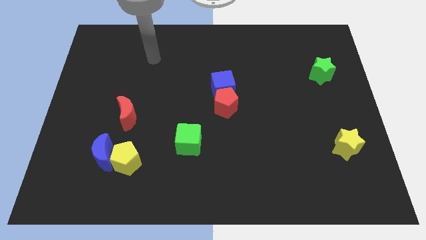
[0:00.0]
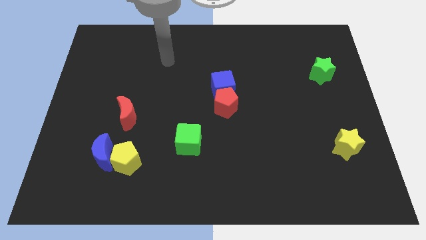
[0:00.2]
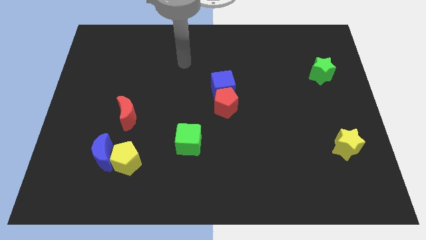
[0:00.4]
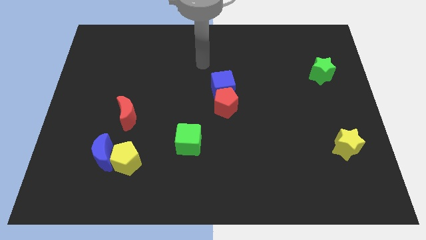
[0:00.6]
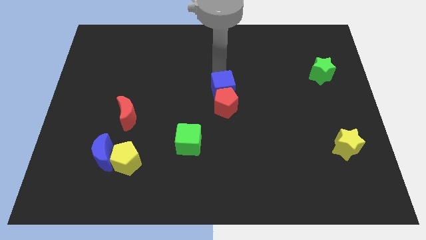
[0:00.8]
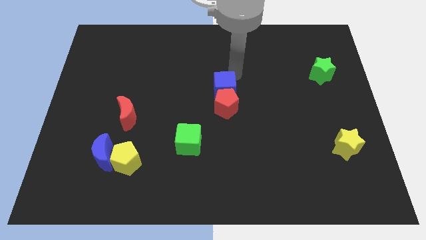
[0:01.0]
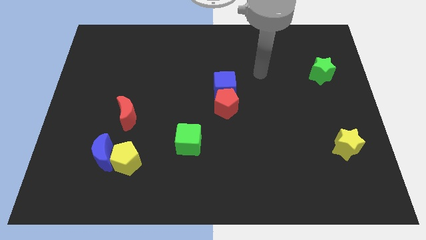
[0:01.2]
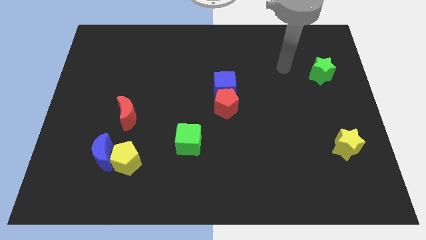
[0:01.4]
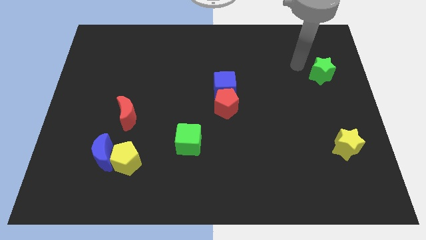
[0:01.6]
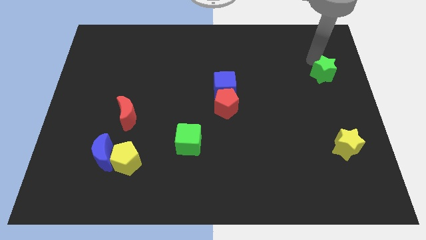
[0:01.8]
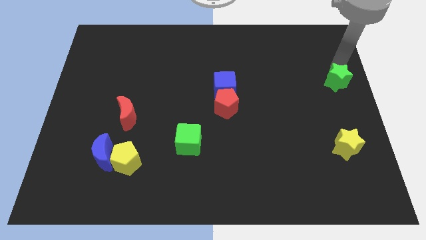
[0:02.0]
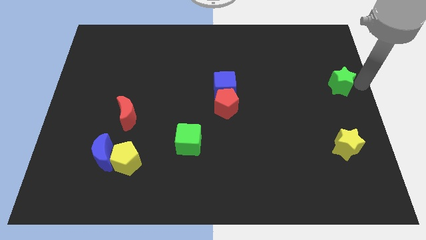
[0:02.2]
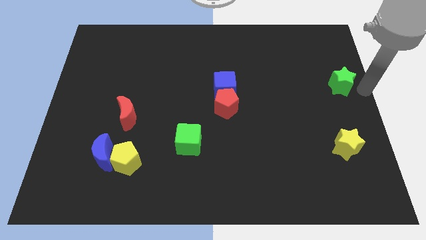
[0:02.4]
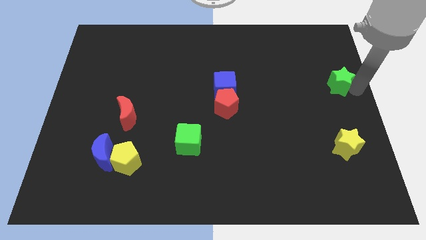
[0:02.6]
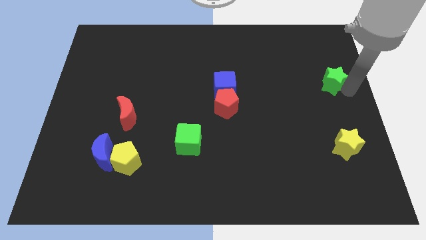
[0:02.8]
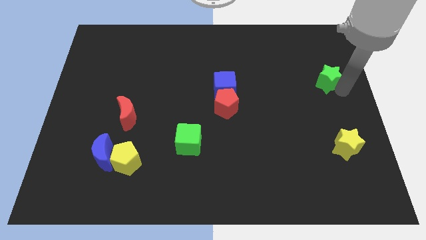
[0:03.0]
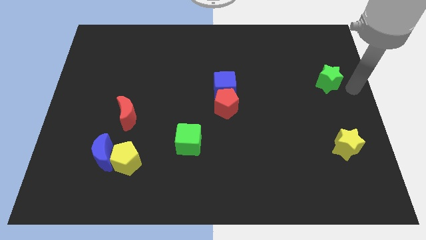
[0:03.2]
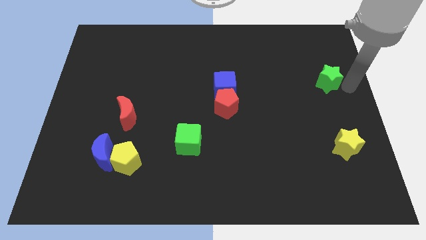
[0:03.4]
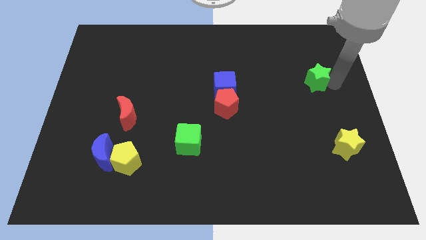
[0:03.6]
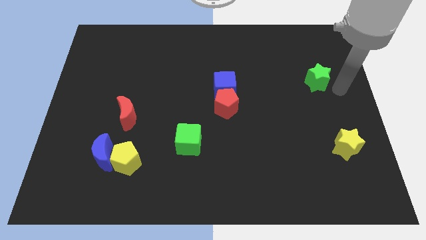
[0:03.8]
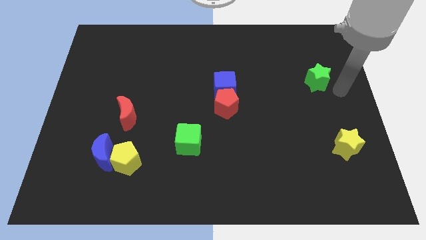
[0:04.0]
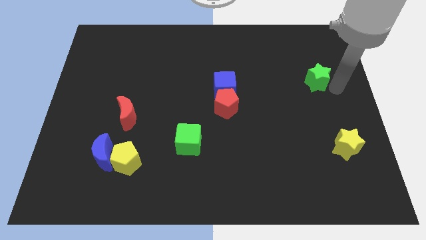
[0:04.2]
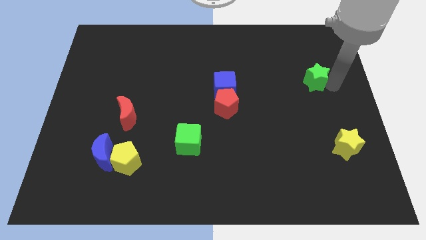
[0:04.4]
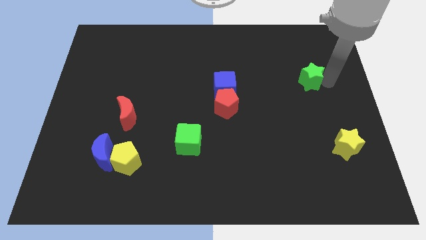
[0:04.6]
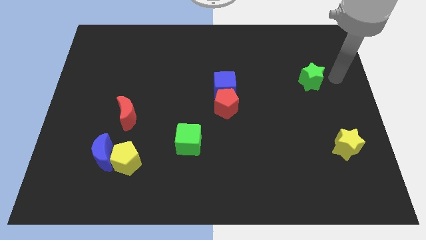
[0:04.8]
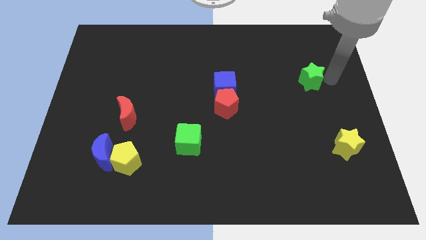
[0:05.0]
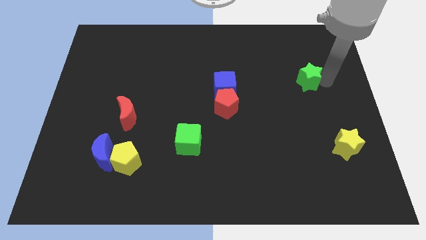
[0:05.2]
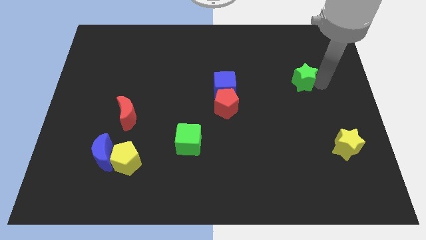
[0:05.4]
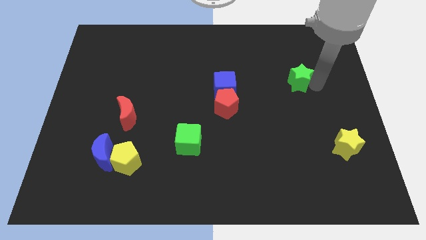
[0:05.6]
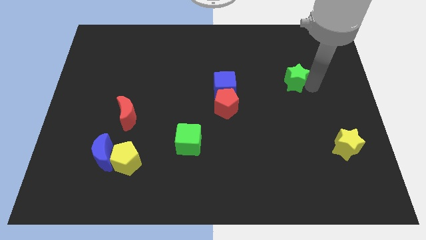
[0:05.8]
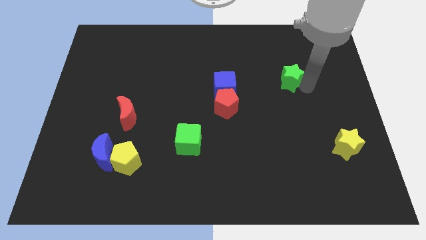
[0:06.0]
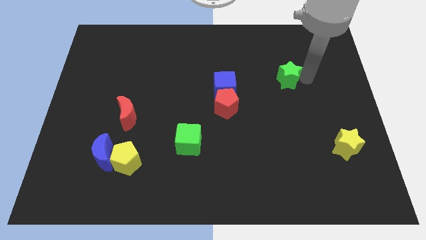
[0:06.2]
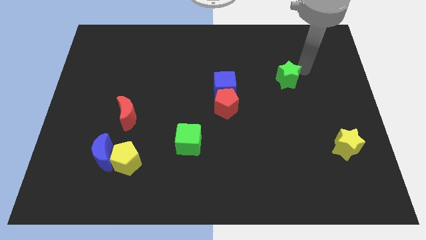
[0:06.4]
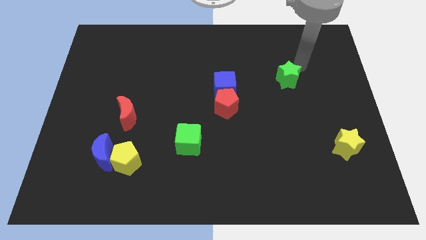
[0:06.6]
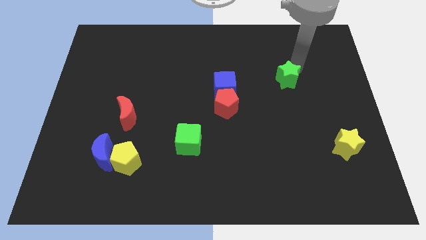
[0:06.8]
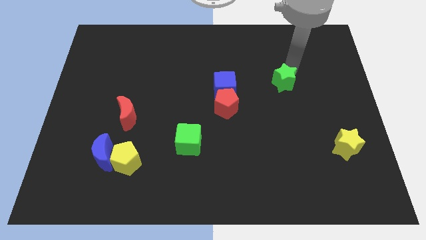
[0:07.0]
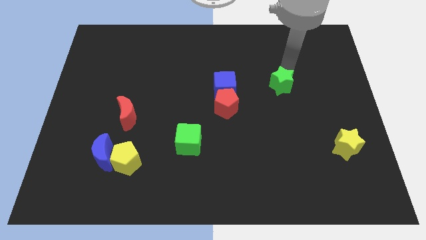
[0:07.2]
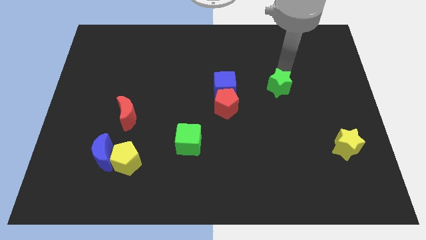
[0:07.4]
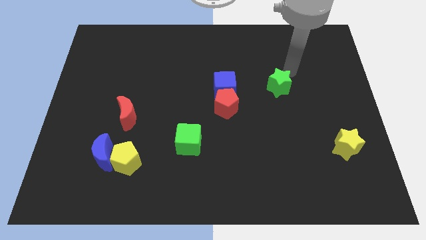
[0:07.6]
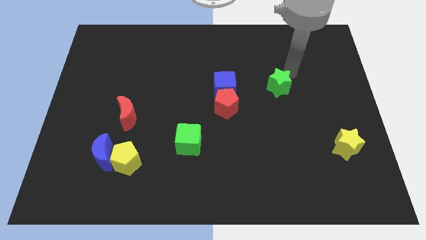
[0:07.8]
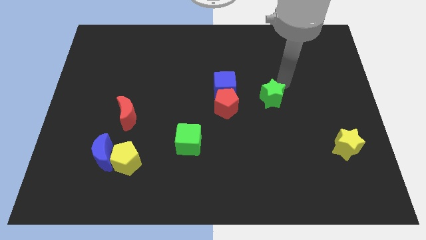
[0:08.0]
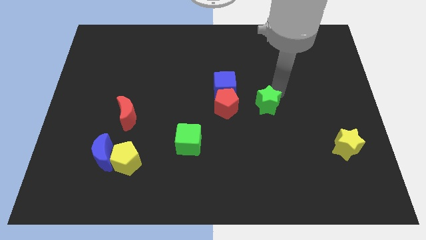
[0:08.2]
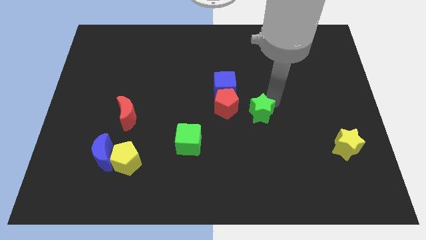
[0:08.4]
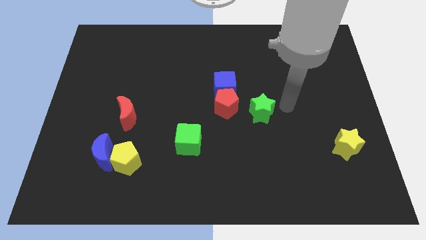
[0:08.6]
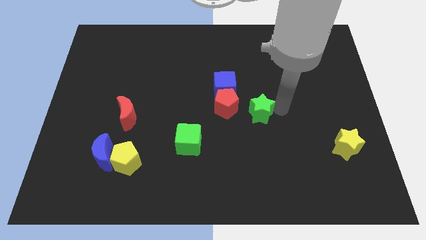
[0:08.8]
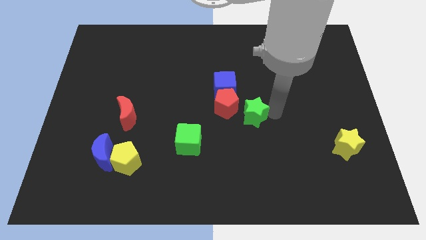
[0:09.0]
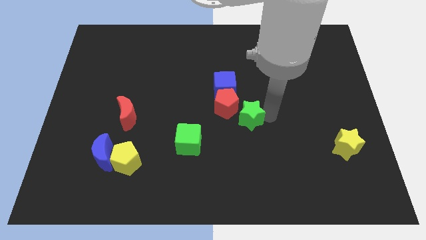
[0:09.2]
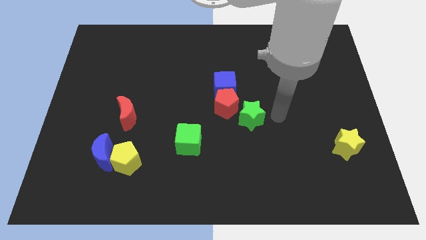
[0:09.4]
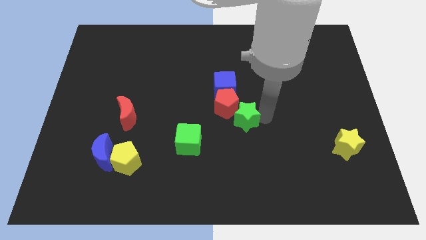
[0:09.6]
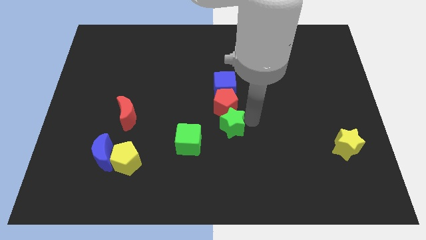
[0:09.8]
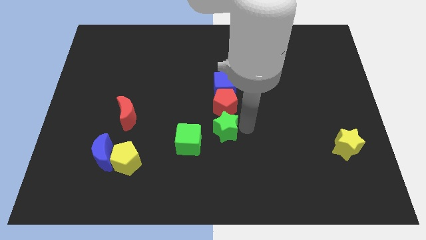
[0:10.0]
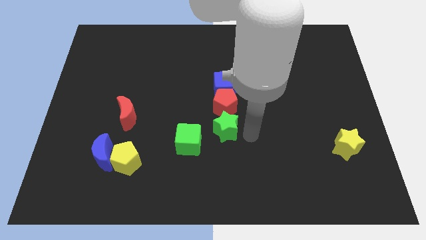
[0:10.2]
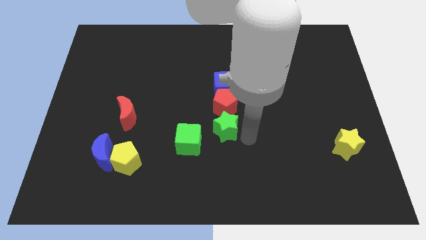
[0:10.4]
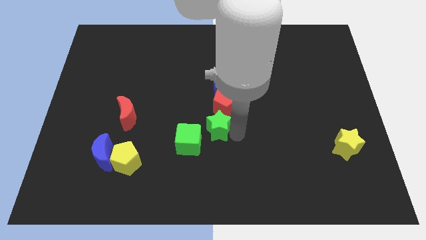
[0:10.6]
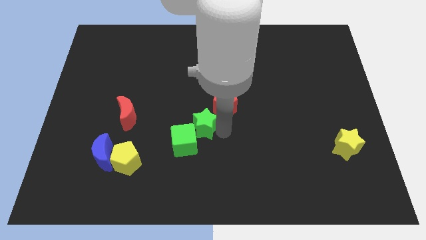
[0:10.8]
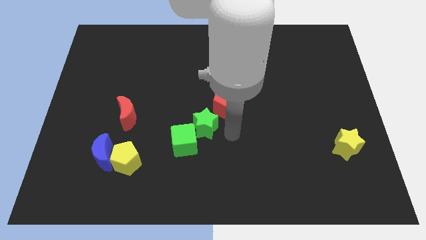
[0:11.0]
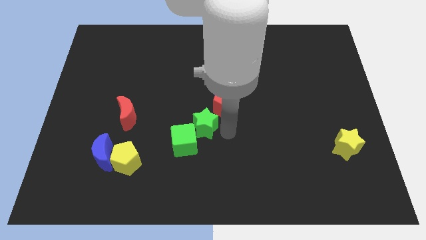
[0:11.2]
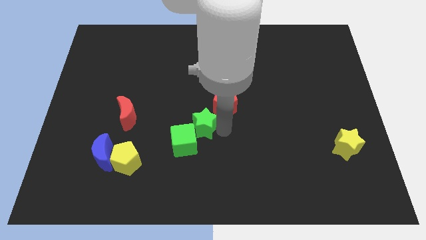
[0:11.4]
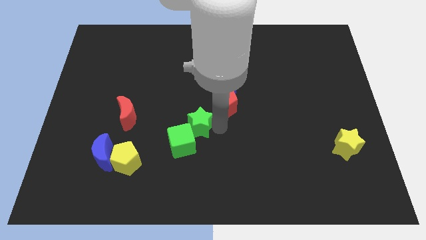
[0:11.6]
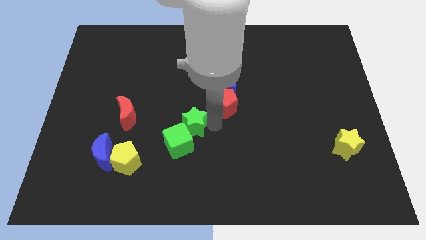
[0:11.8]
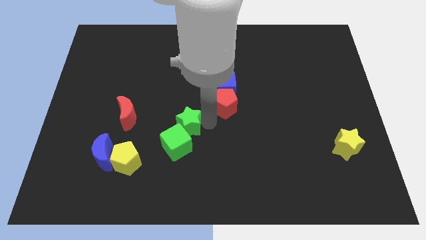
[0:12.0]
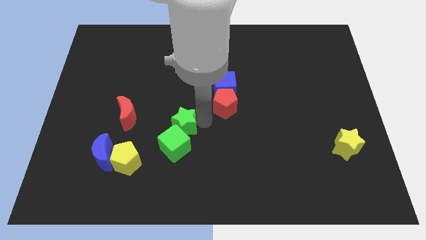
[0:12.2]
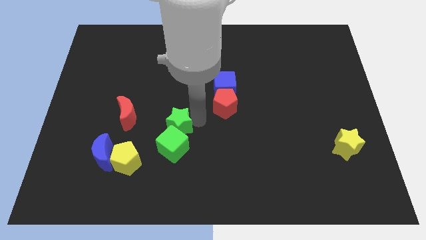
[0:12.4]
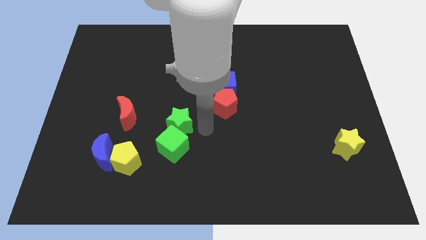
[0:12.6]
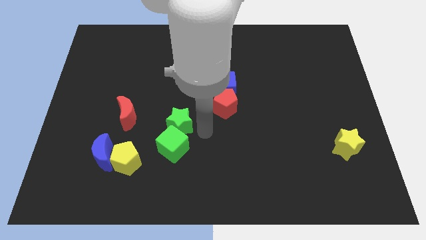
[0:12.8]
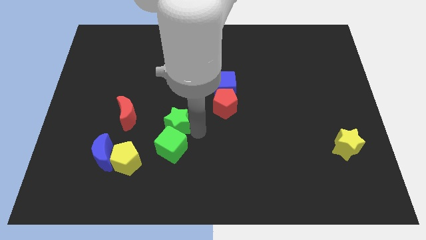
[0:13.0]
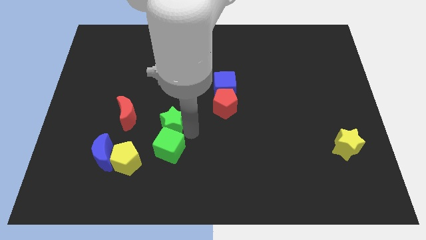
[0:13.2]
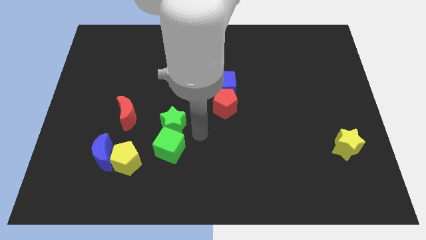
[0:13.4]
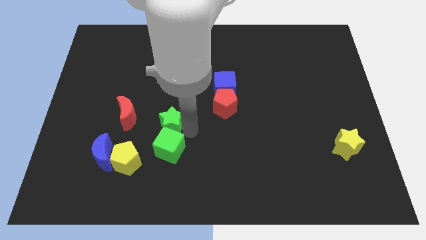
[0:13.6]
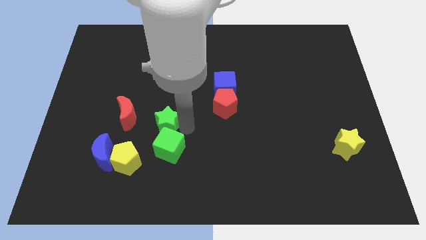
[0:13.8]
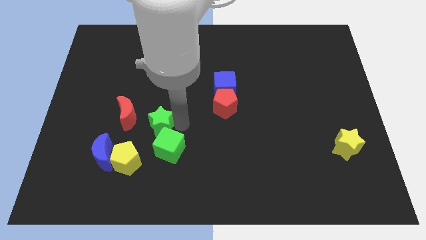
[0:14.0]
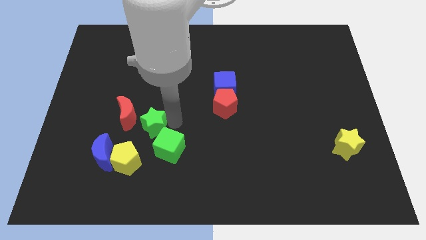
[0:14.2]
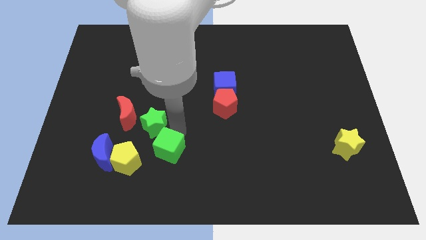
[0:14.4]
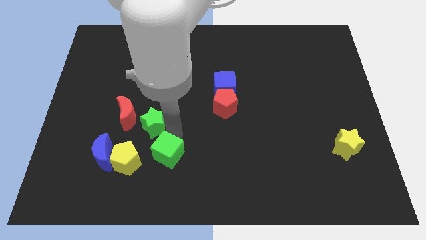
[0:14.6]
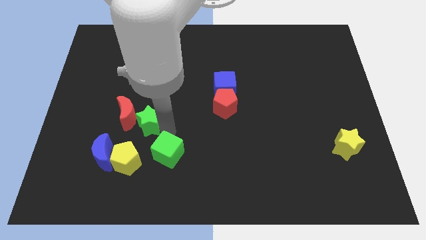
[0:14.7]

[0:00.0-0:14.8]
put the green star to the red moon
